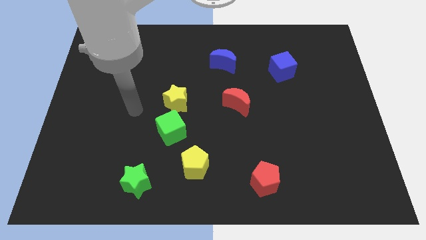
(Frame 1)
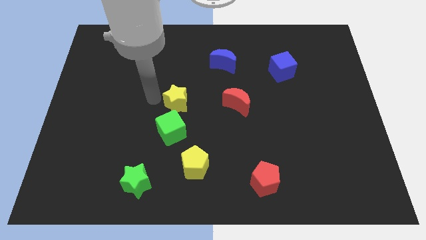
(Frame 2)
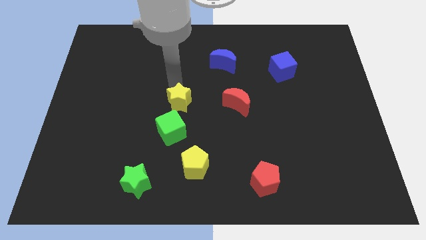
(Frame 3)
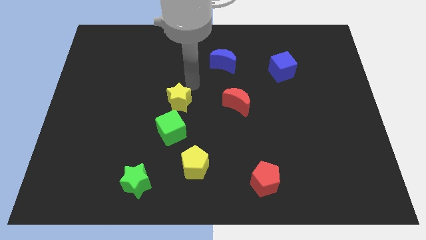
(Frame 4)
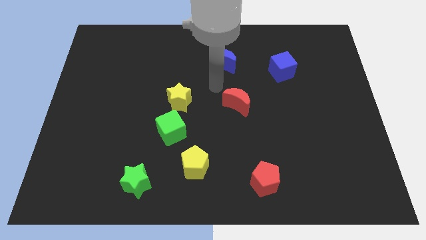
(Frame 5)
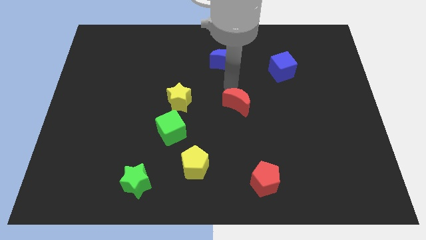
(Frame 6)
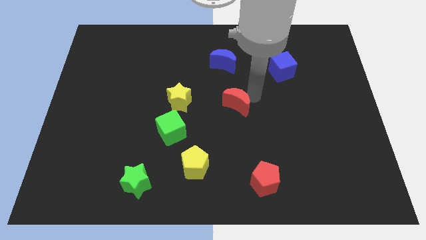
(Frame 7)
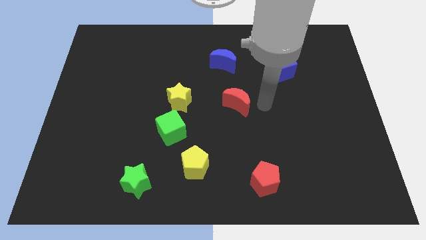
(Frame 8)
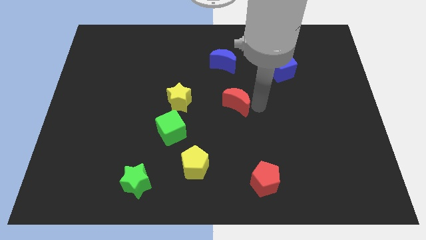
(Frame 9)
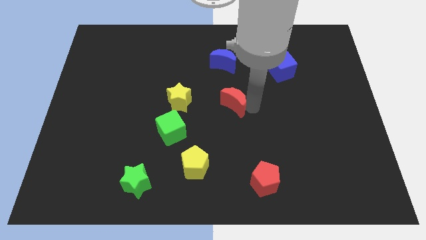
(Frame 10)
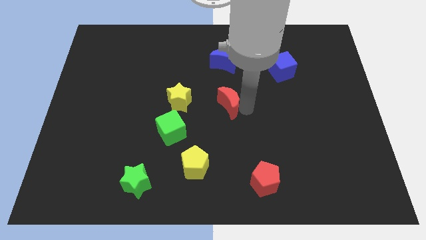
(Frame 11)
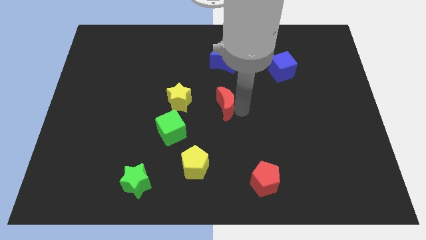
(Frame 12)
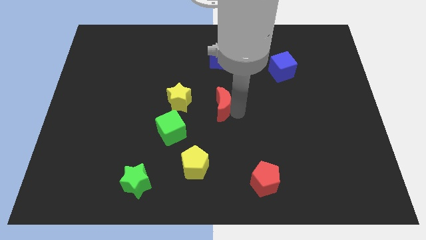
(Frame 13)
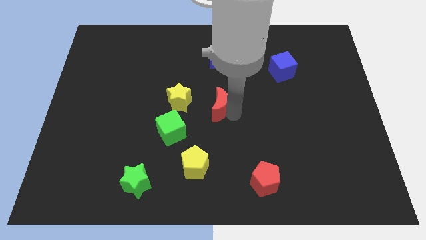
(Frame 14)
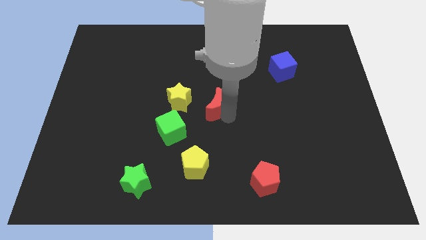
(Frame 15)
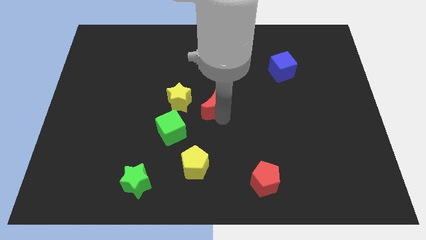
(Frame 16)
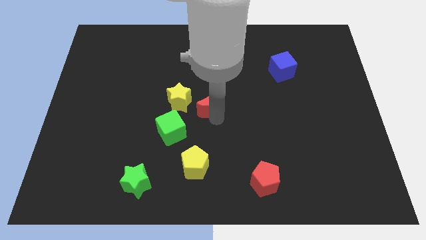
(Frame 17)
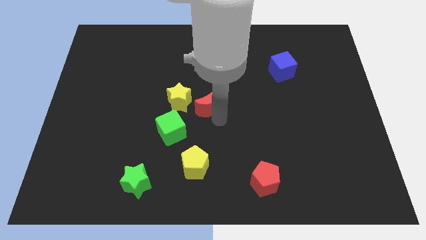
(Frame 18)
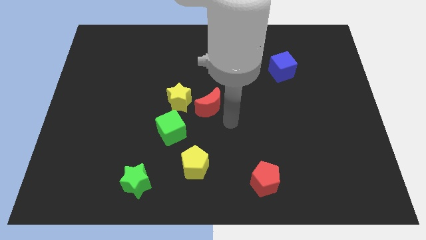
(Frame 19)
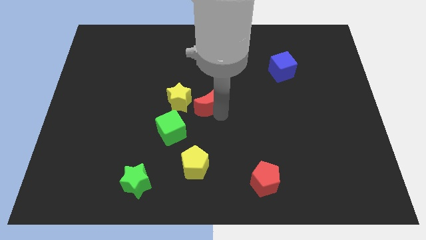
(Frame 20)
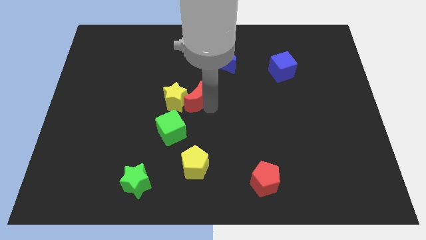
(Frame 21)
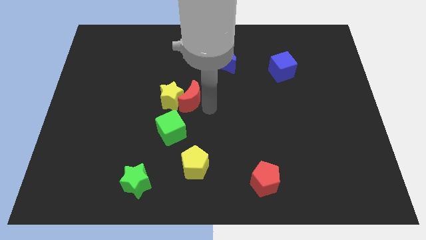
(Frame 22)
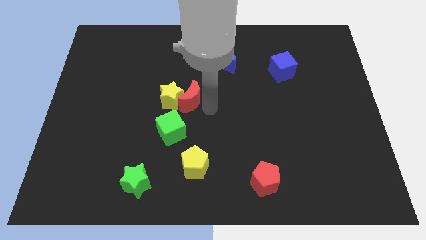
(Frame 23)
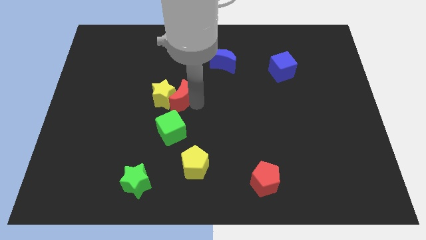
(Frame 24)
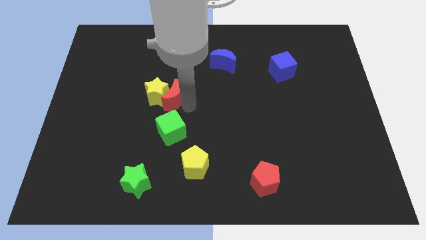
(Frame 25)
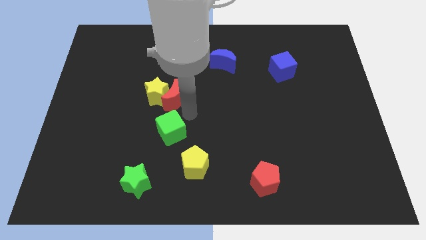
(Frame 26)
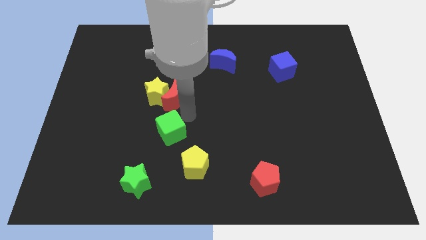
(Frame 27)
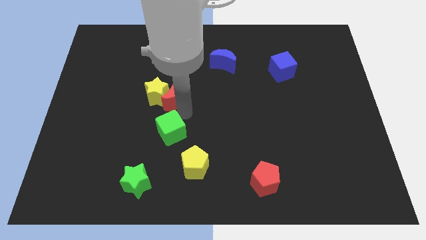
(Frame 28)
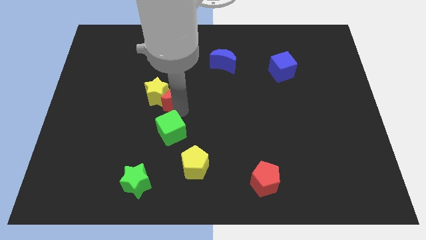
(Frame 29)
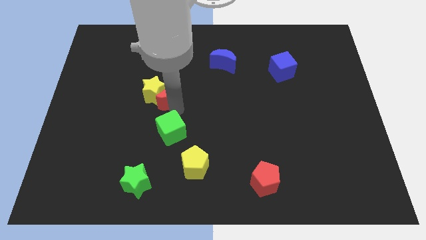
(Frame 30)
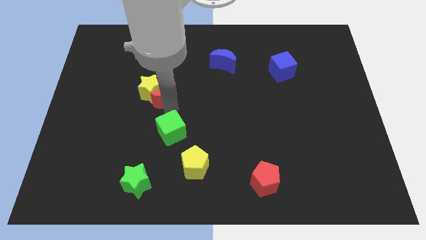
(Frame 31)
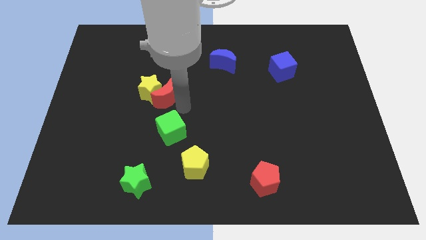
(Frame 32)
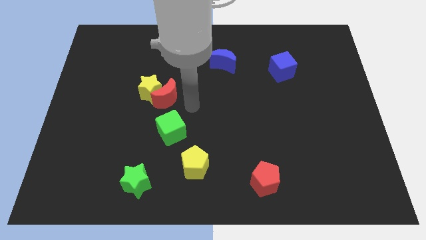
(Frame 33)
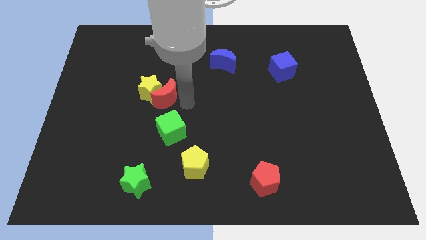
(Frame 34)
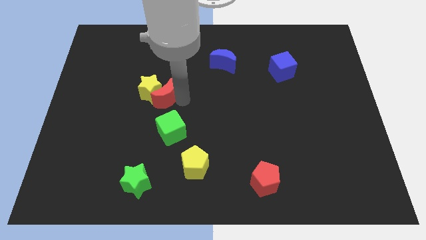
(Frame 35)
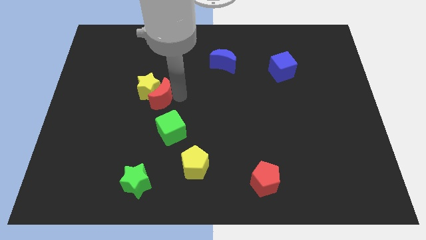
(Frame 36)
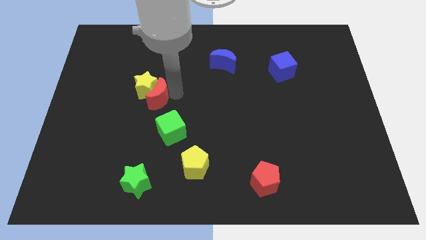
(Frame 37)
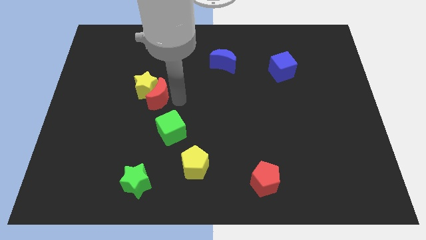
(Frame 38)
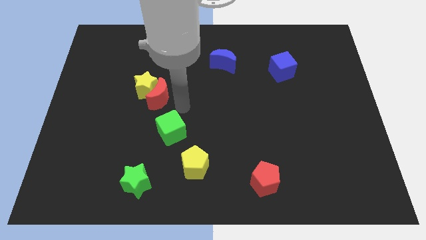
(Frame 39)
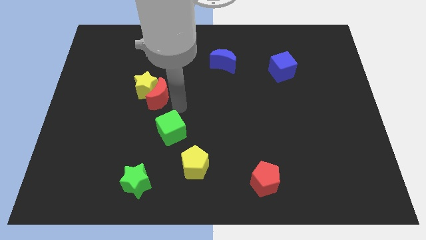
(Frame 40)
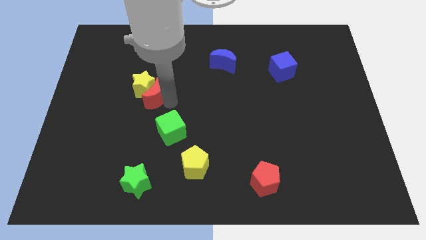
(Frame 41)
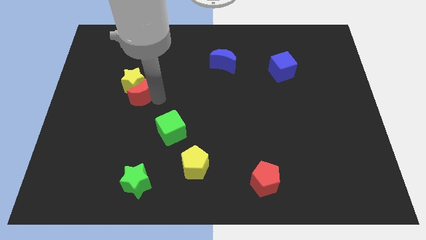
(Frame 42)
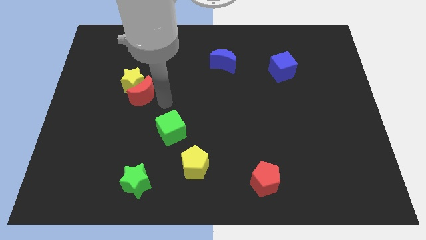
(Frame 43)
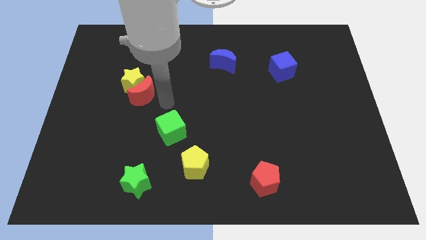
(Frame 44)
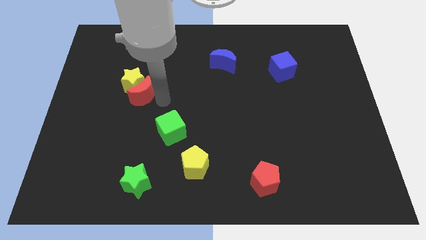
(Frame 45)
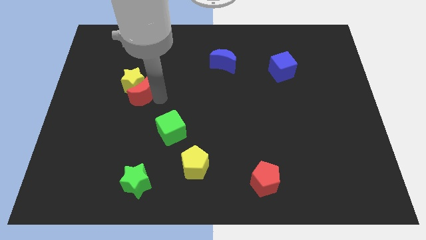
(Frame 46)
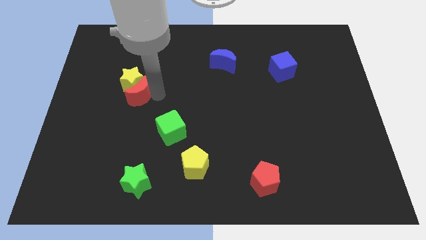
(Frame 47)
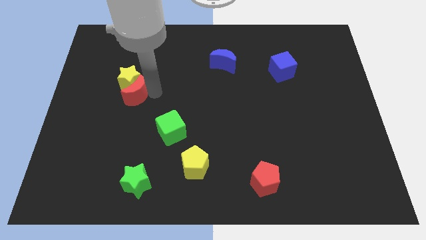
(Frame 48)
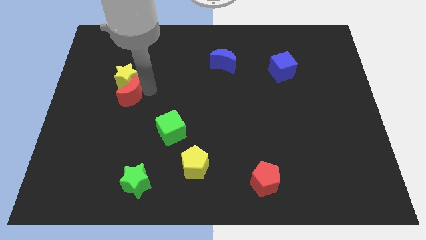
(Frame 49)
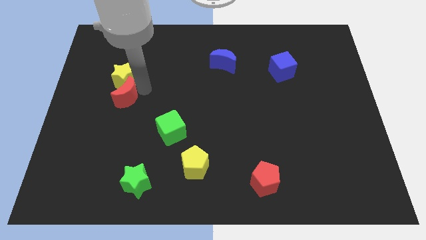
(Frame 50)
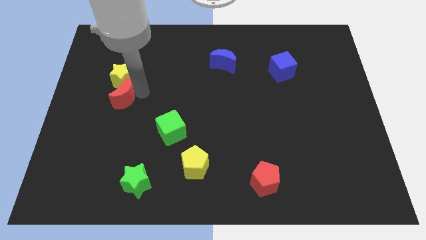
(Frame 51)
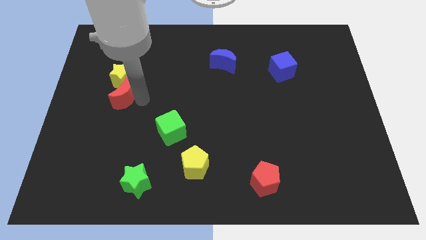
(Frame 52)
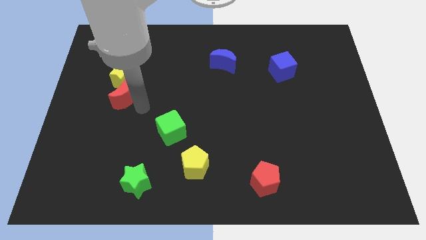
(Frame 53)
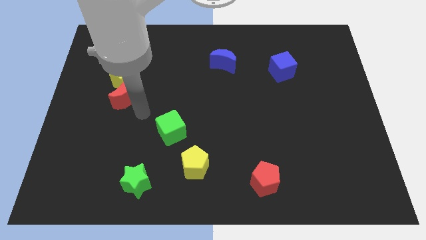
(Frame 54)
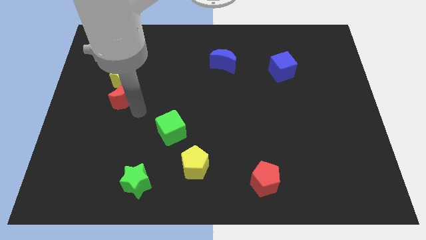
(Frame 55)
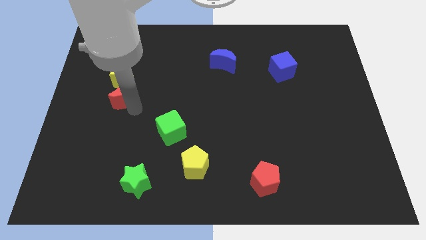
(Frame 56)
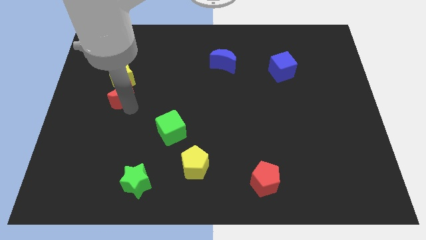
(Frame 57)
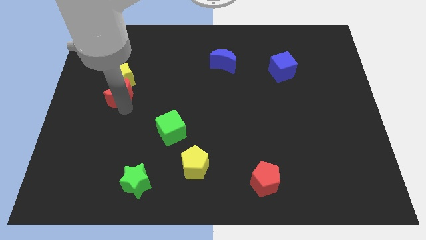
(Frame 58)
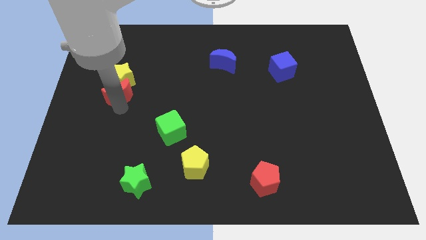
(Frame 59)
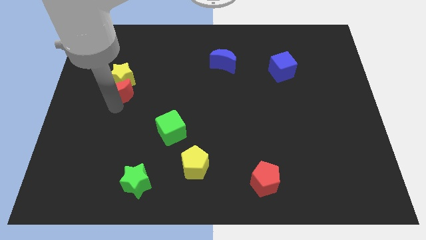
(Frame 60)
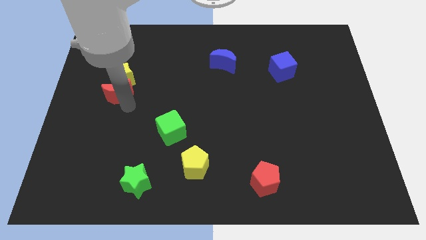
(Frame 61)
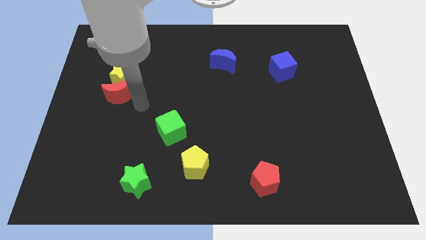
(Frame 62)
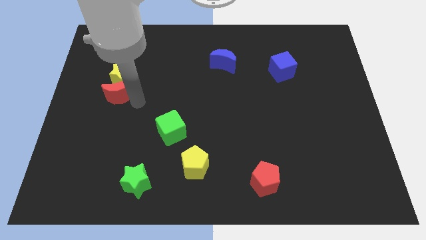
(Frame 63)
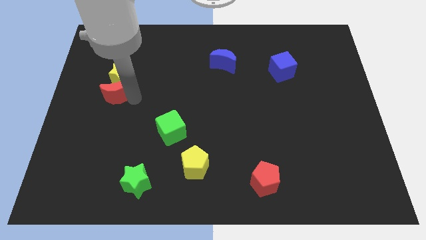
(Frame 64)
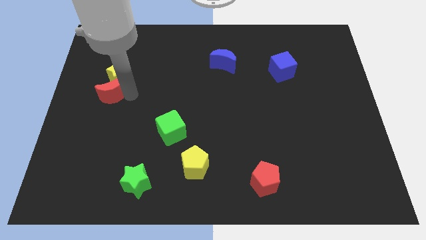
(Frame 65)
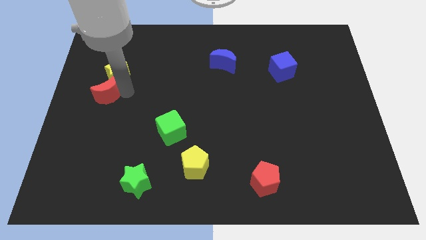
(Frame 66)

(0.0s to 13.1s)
push the red moon to the center left
